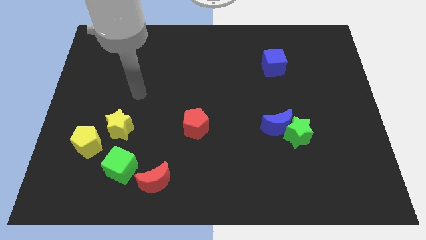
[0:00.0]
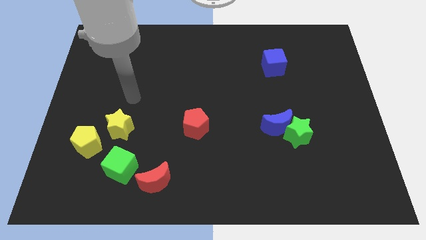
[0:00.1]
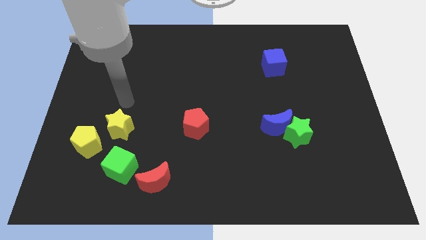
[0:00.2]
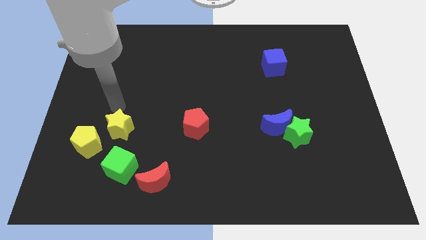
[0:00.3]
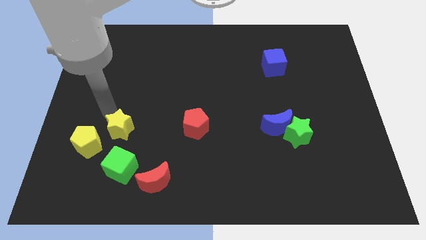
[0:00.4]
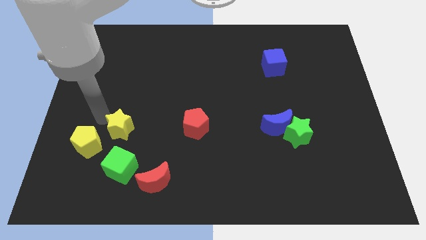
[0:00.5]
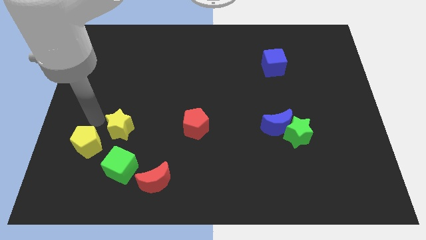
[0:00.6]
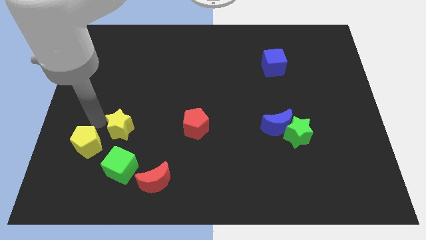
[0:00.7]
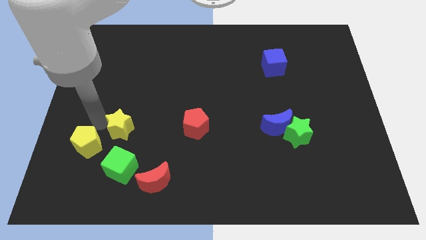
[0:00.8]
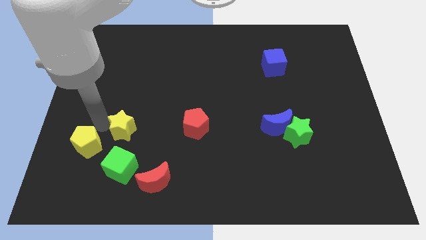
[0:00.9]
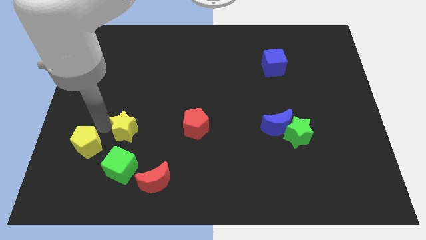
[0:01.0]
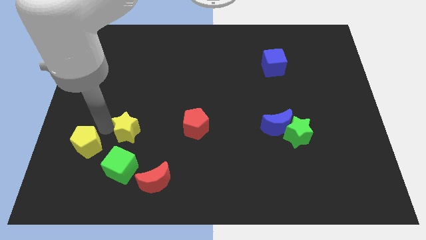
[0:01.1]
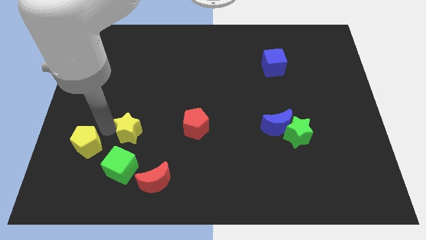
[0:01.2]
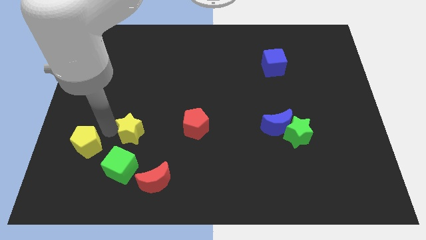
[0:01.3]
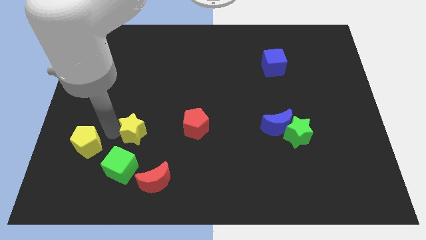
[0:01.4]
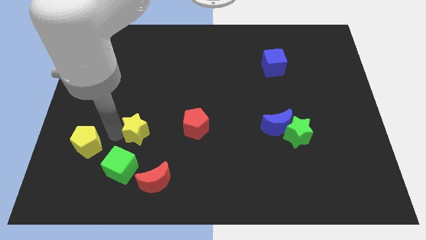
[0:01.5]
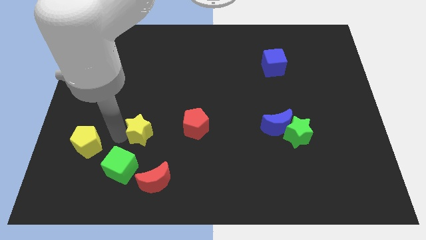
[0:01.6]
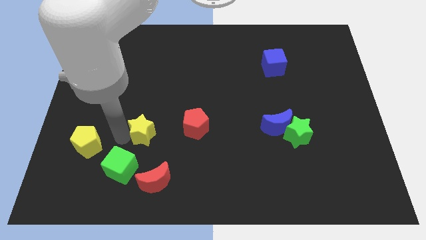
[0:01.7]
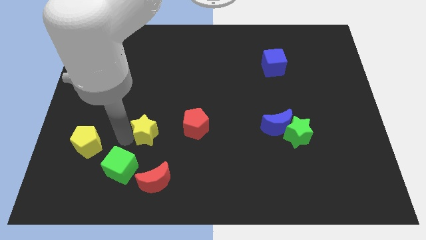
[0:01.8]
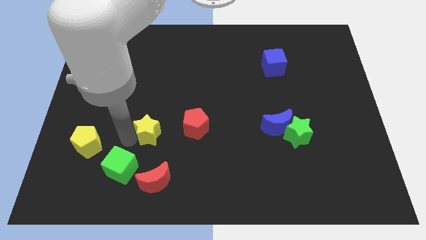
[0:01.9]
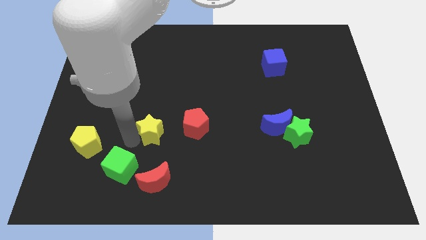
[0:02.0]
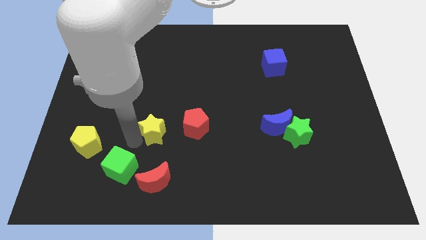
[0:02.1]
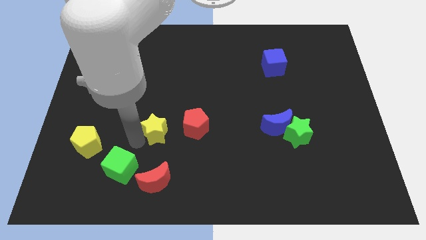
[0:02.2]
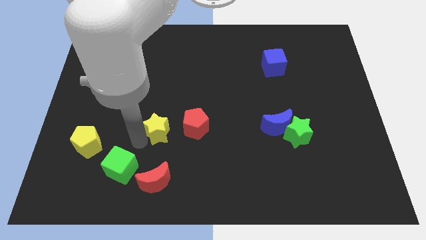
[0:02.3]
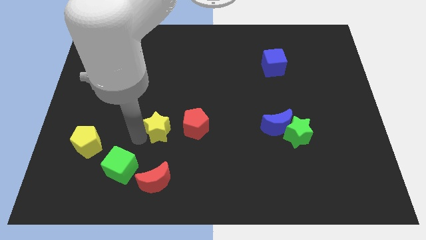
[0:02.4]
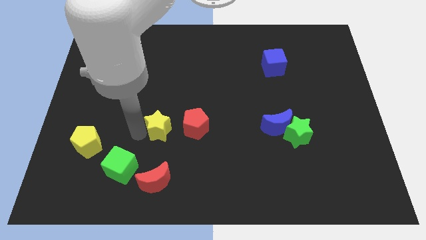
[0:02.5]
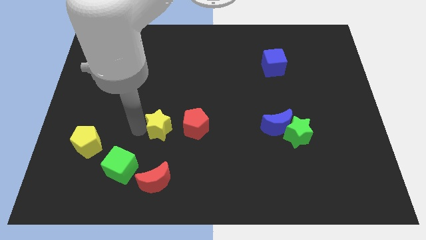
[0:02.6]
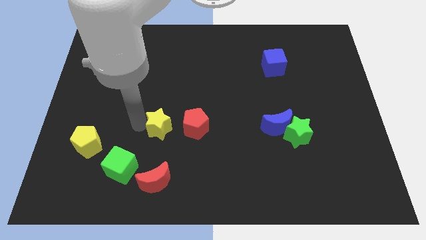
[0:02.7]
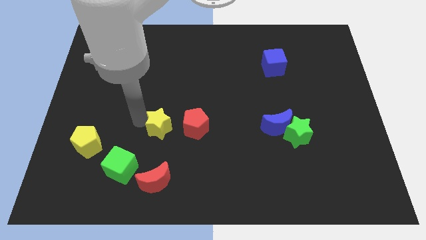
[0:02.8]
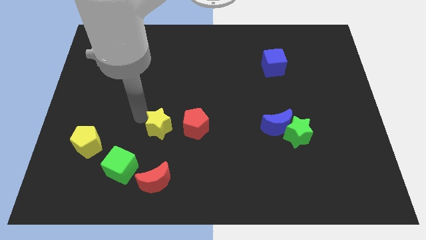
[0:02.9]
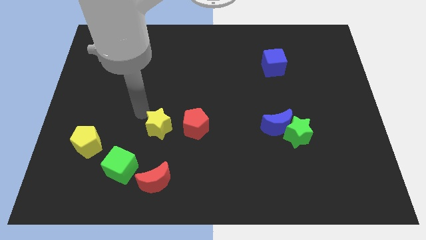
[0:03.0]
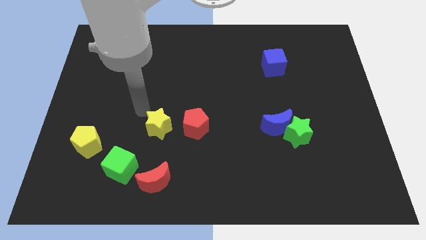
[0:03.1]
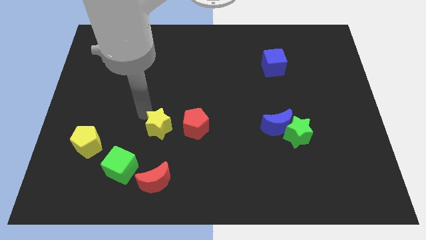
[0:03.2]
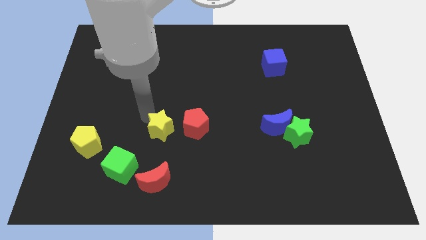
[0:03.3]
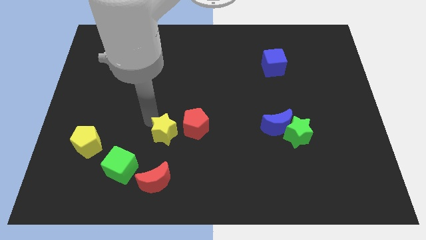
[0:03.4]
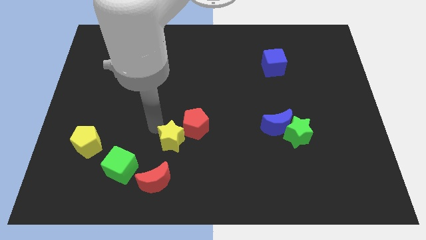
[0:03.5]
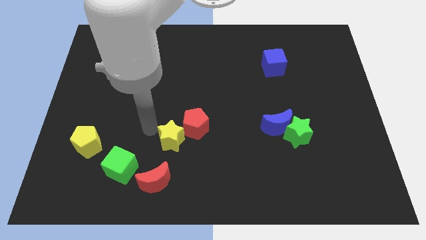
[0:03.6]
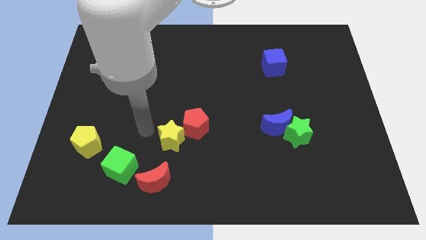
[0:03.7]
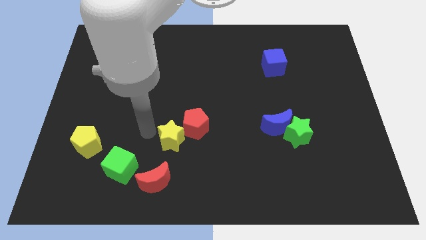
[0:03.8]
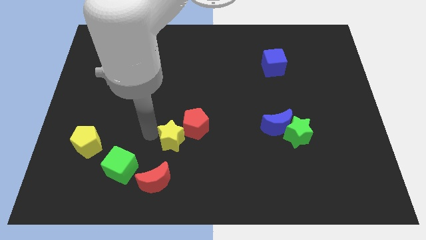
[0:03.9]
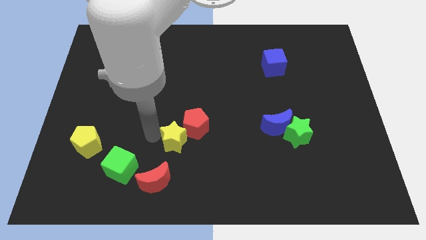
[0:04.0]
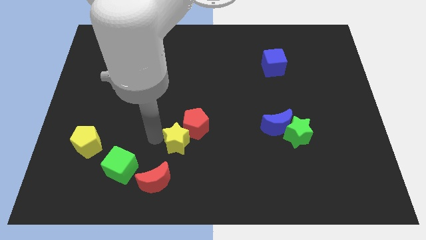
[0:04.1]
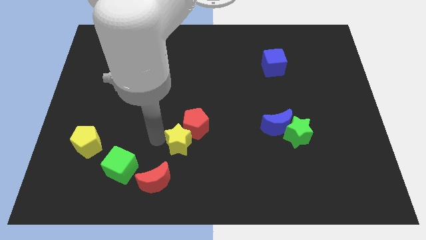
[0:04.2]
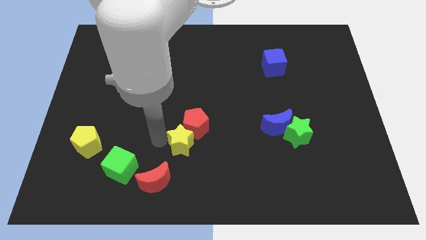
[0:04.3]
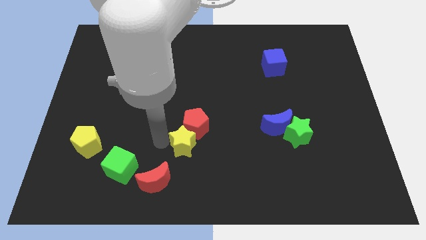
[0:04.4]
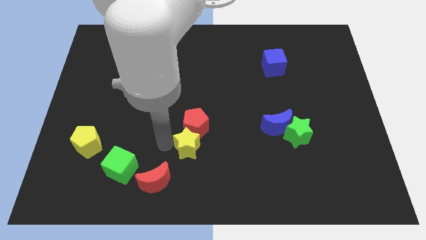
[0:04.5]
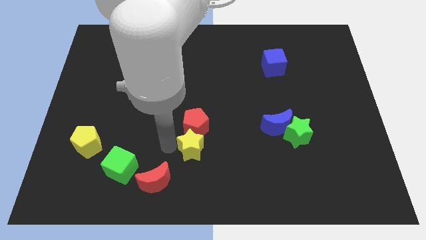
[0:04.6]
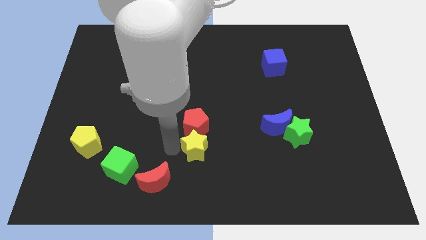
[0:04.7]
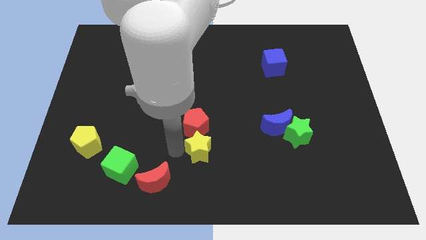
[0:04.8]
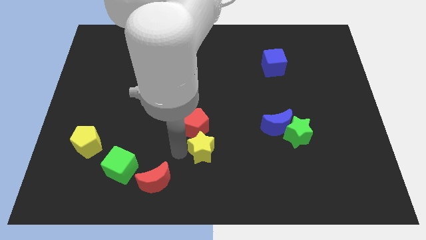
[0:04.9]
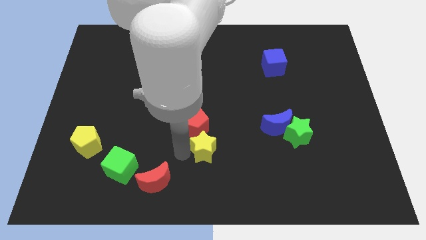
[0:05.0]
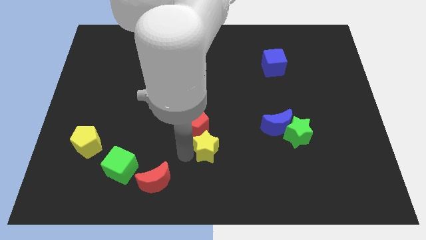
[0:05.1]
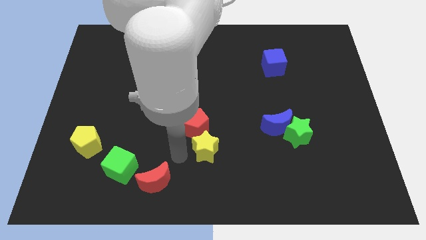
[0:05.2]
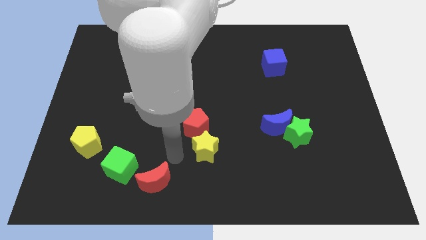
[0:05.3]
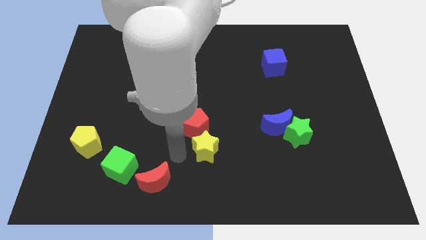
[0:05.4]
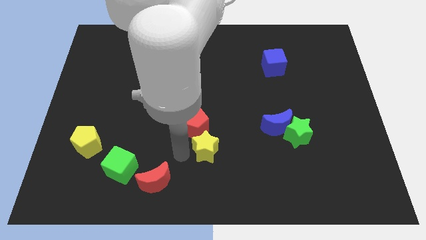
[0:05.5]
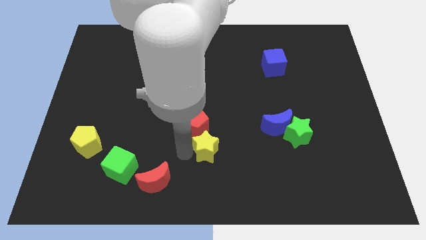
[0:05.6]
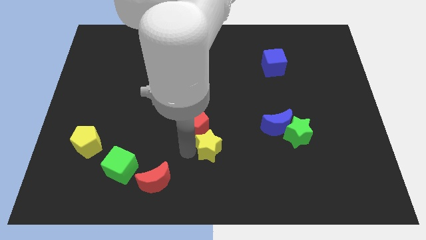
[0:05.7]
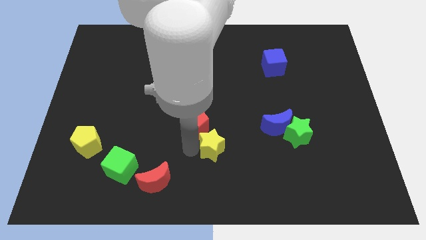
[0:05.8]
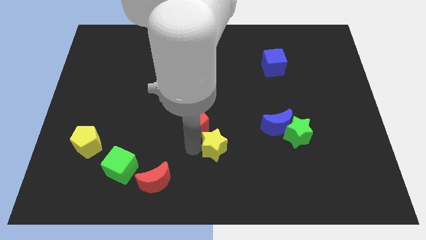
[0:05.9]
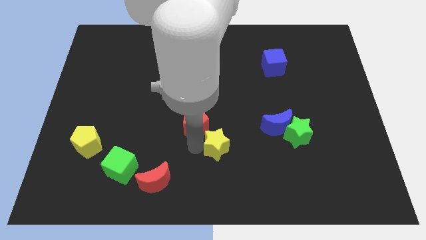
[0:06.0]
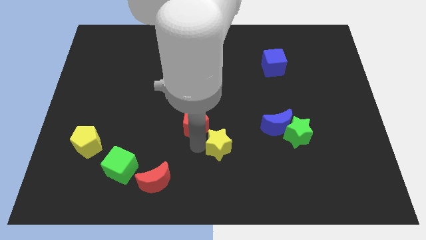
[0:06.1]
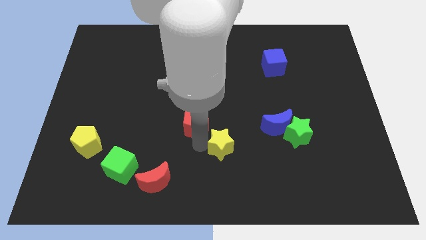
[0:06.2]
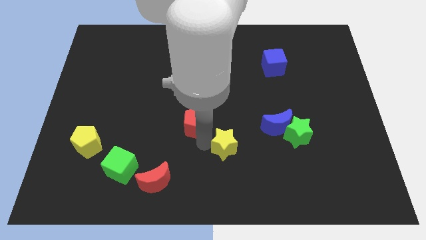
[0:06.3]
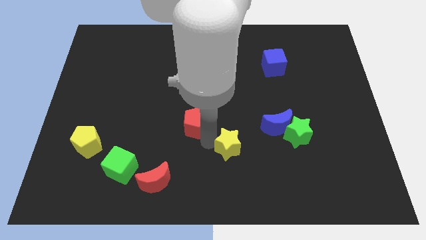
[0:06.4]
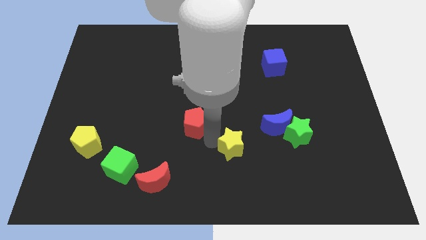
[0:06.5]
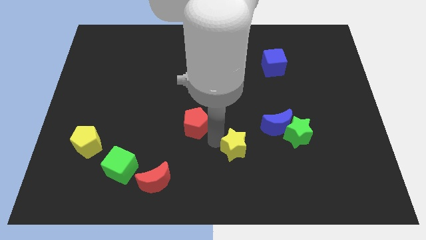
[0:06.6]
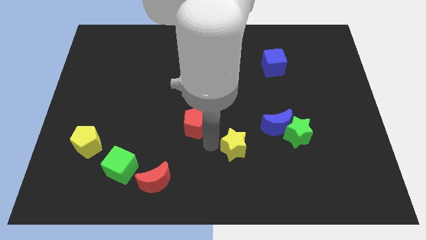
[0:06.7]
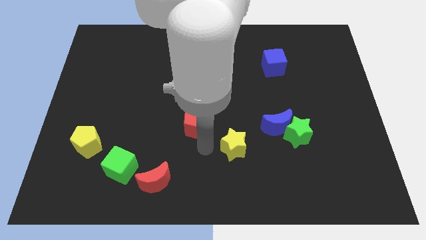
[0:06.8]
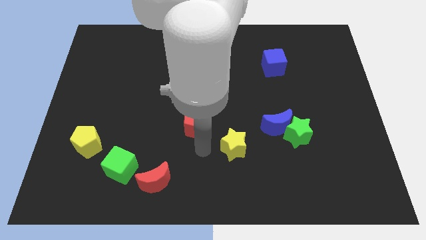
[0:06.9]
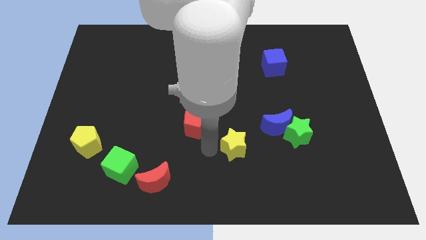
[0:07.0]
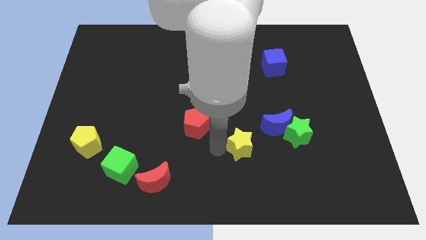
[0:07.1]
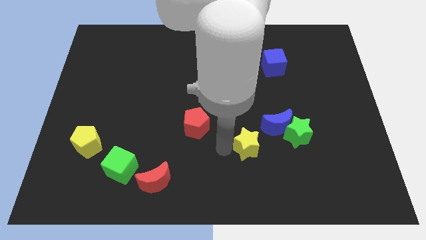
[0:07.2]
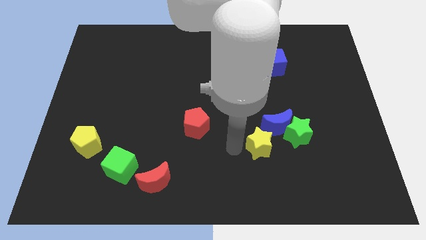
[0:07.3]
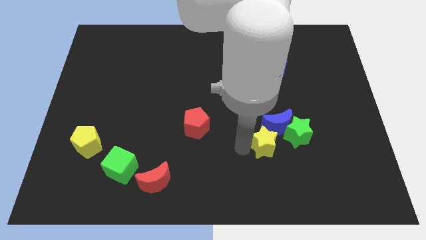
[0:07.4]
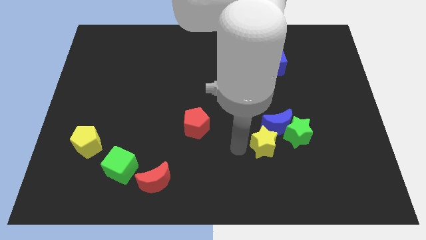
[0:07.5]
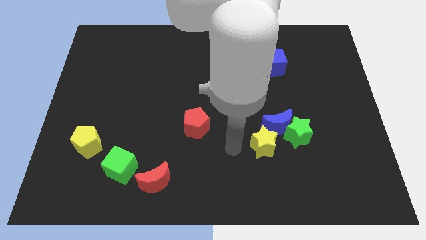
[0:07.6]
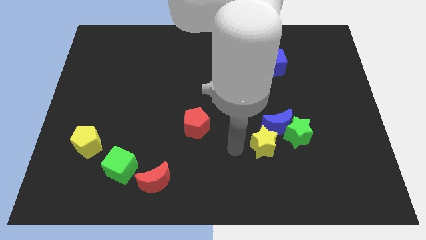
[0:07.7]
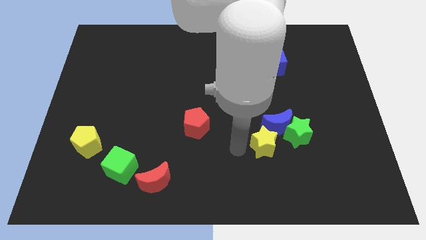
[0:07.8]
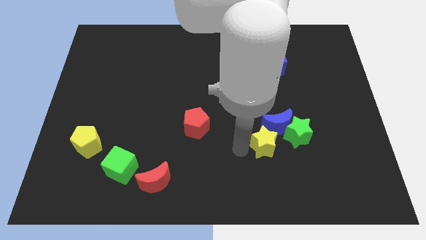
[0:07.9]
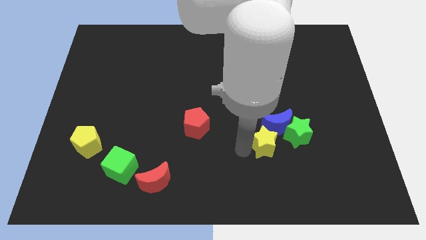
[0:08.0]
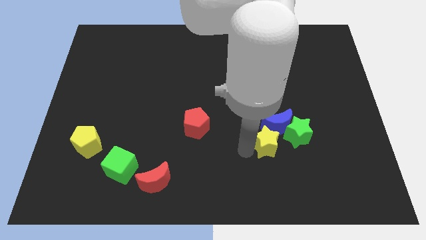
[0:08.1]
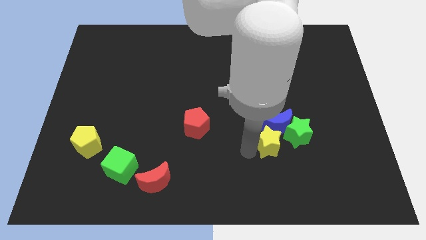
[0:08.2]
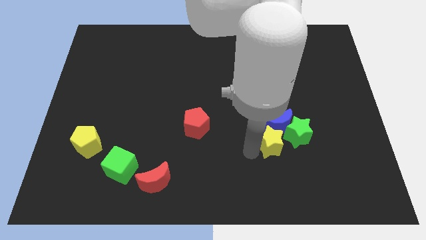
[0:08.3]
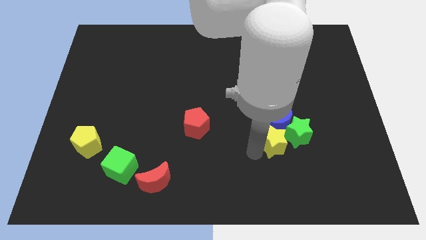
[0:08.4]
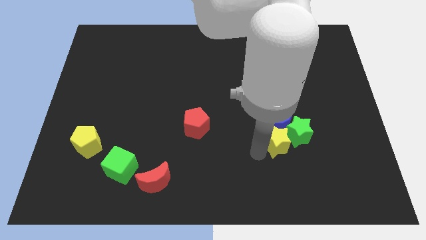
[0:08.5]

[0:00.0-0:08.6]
put the yellow star to the green star
